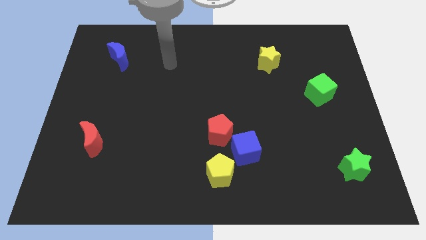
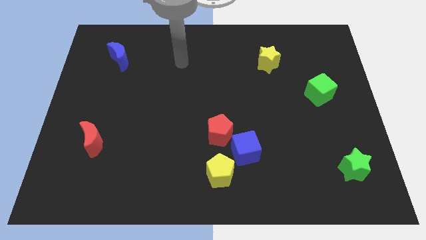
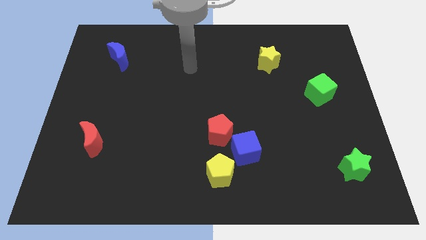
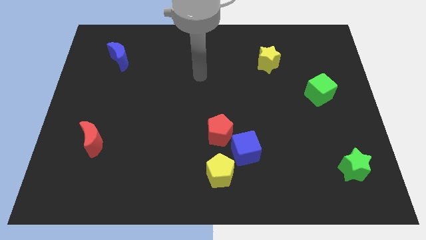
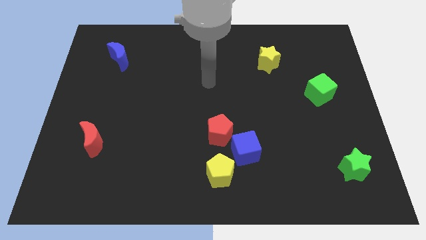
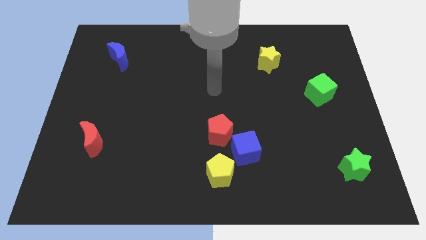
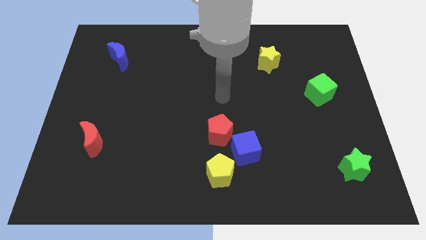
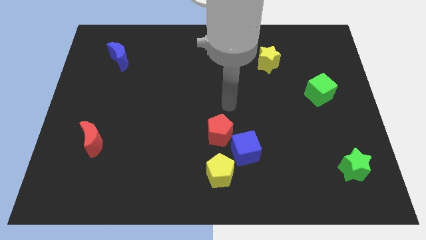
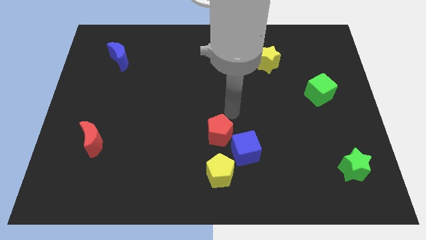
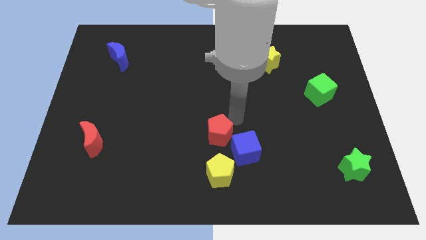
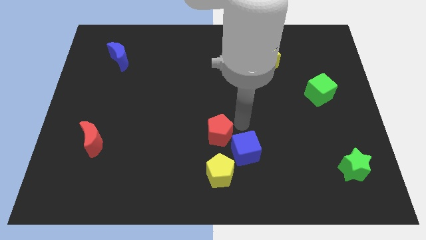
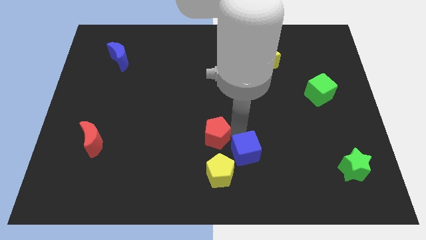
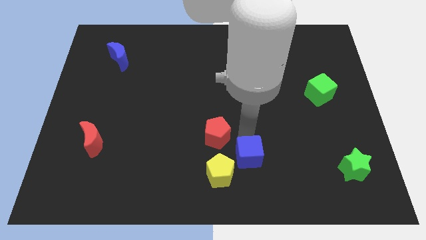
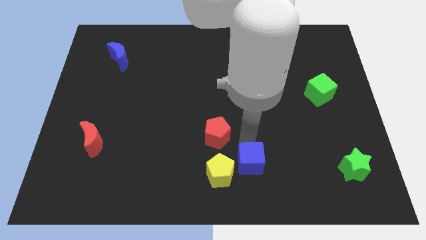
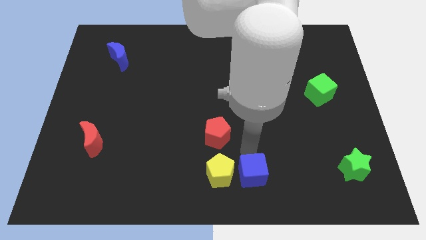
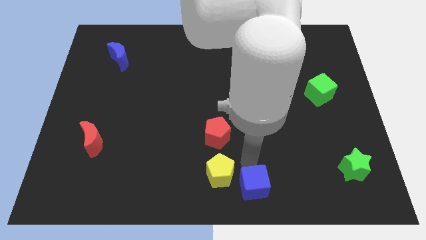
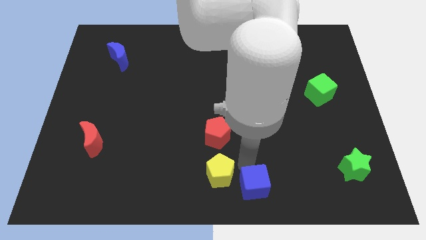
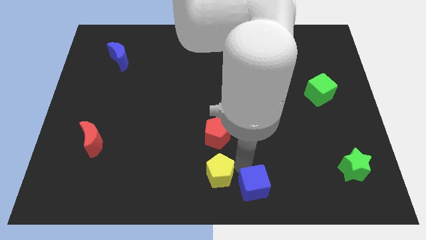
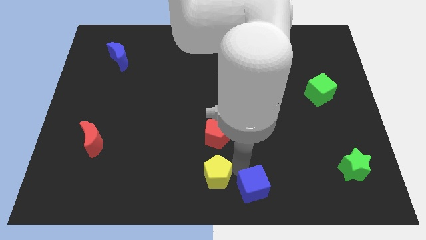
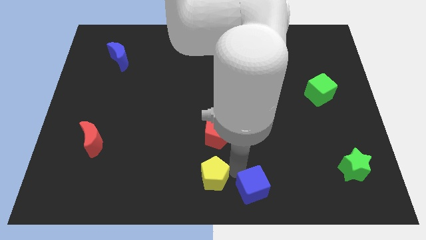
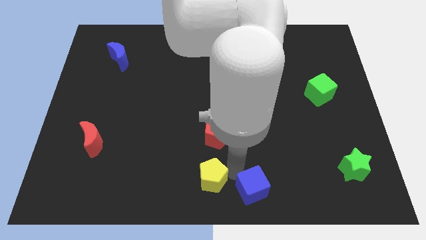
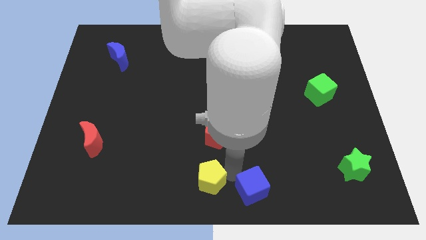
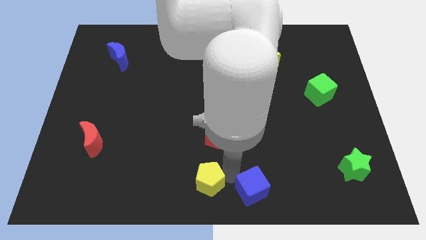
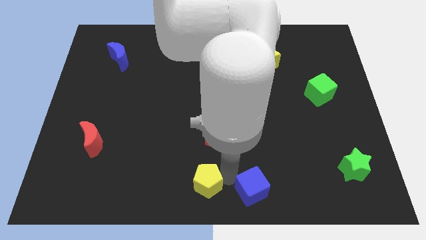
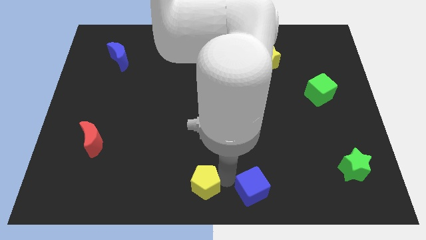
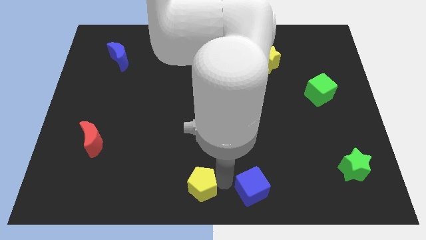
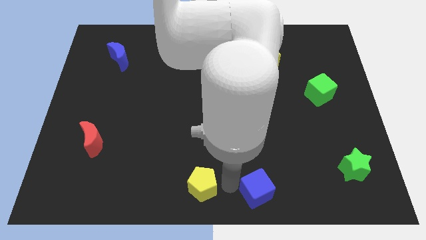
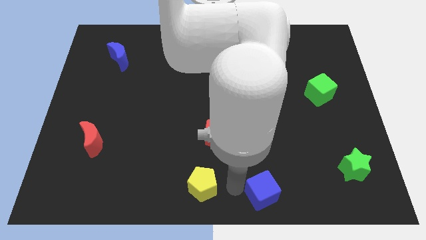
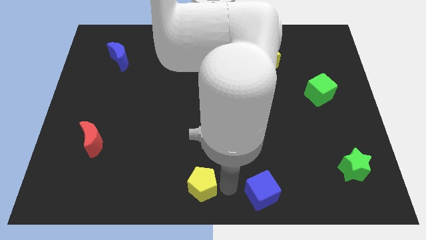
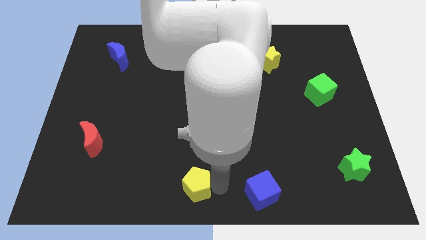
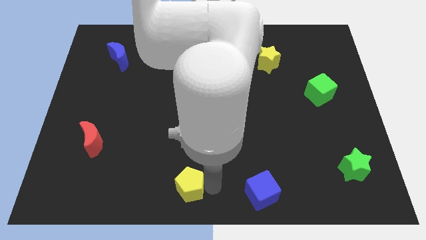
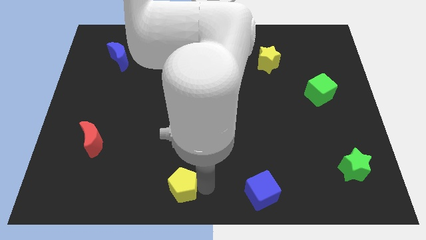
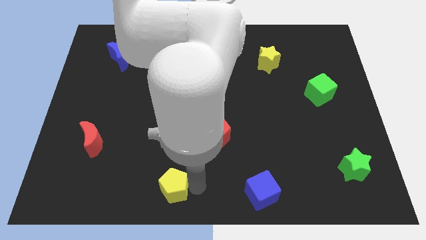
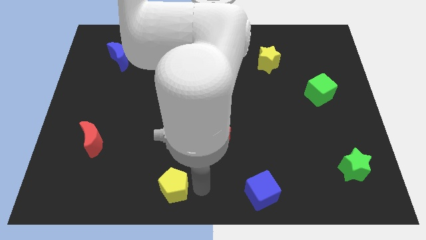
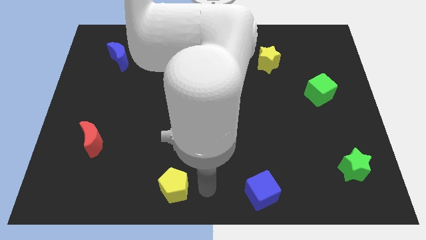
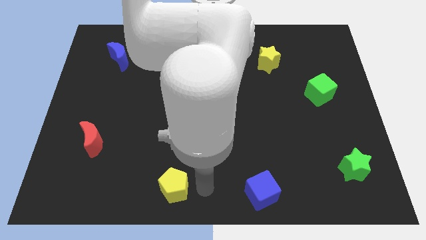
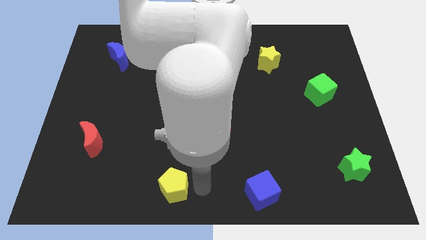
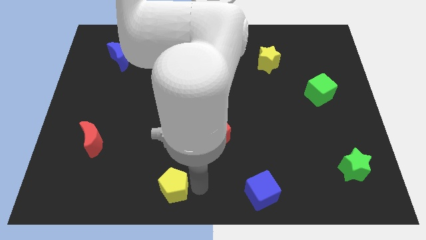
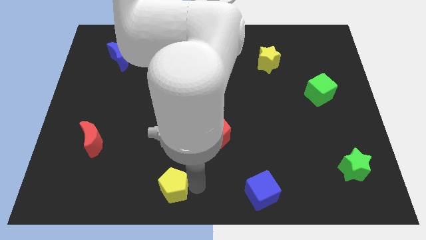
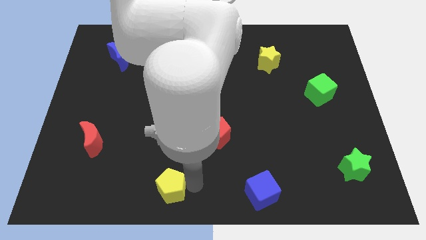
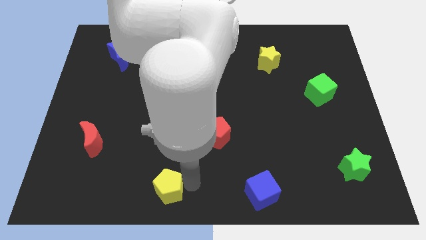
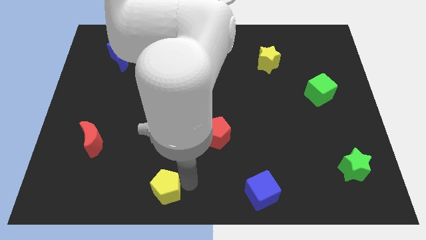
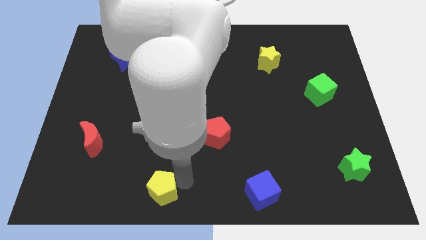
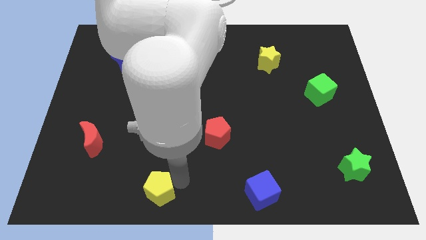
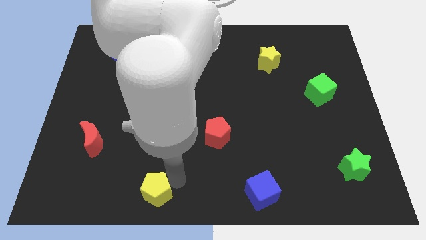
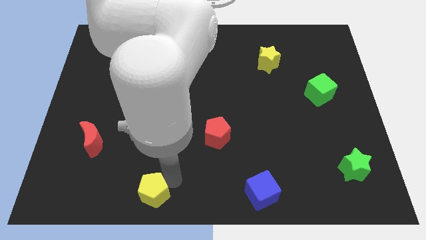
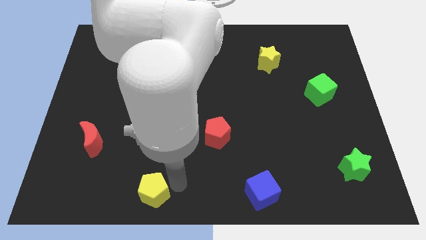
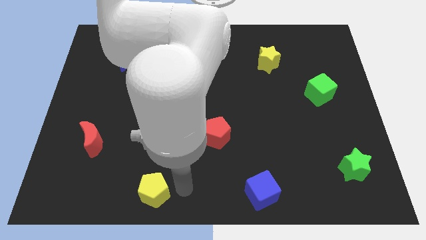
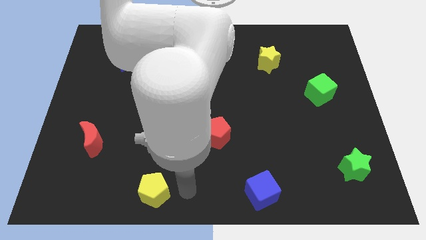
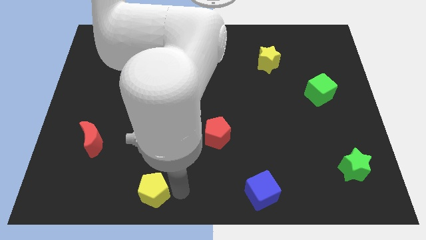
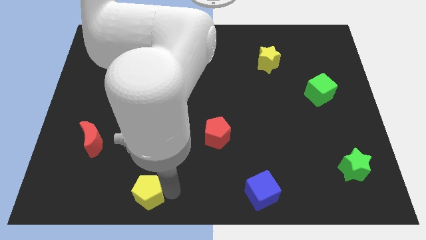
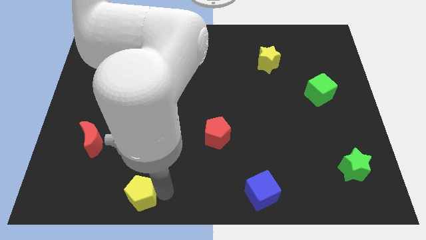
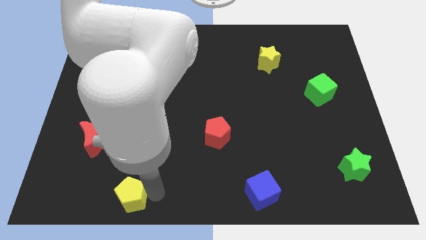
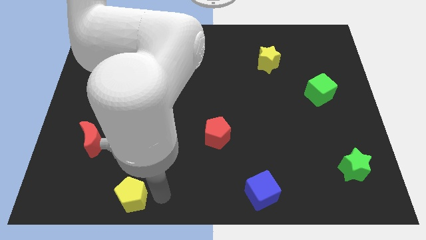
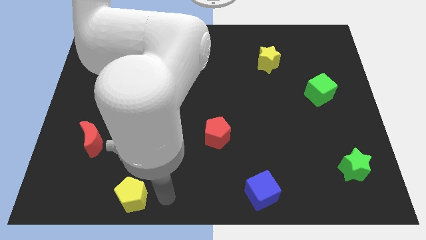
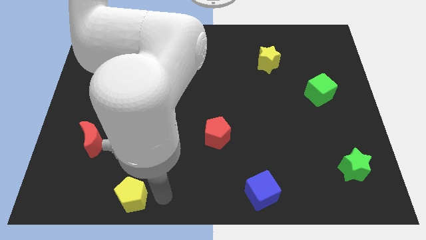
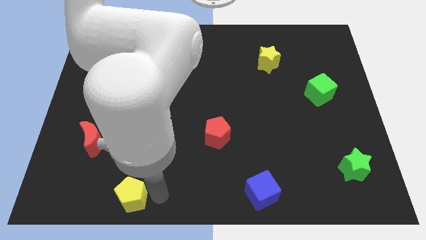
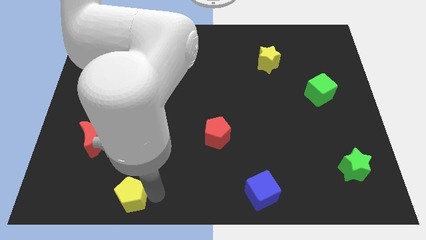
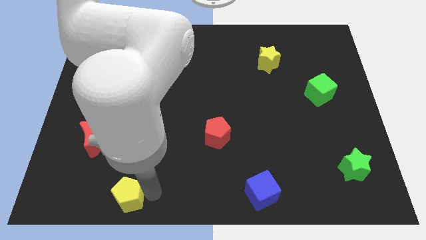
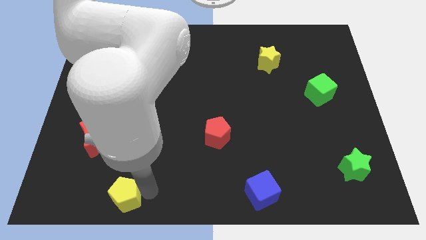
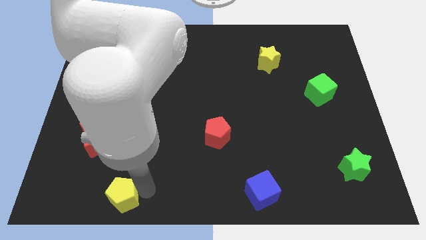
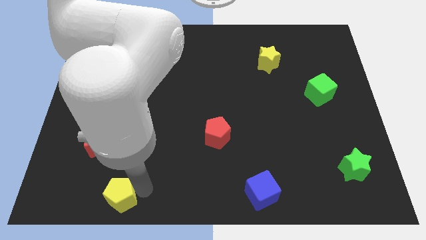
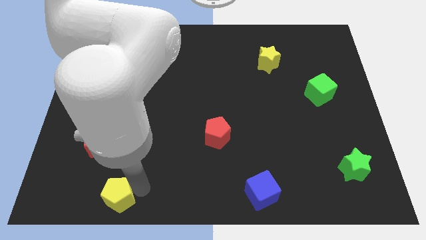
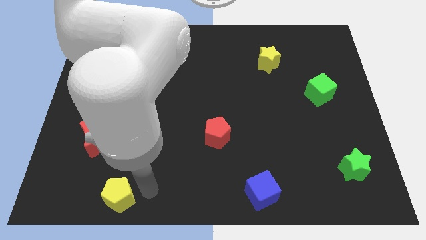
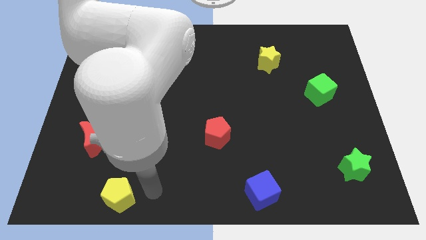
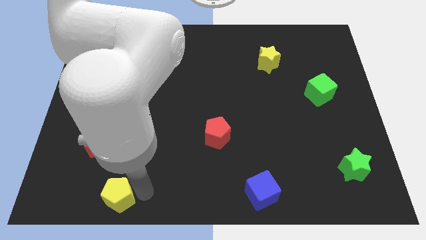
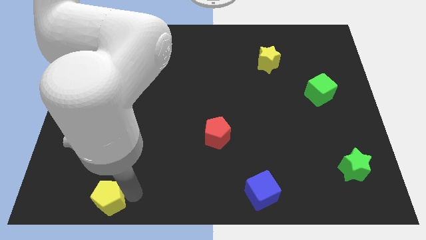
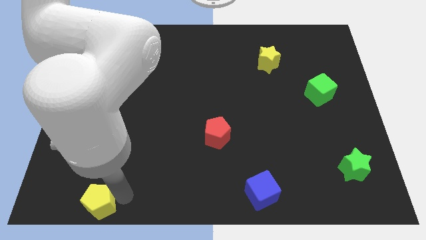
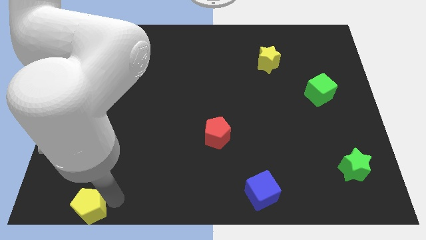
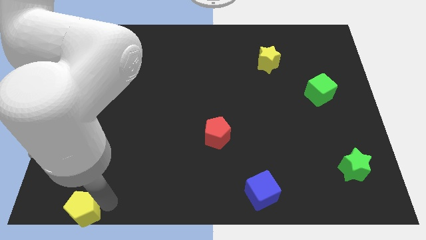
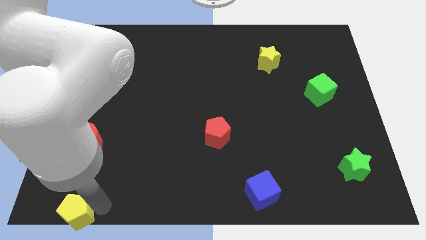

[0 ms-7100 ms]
slide the yellow pentagon to the bottom left of the board
